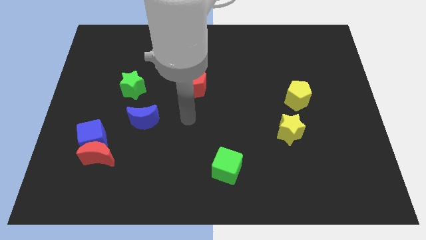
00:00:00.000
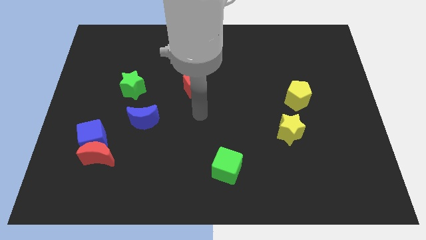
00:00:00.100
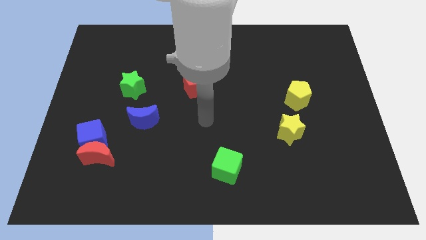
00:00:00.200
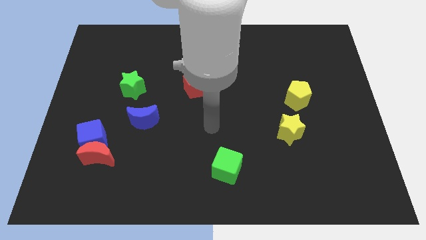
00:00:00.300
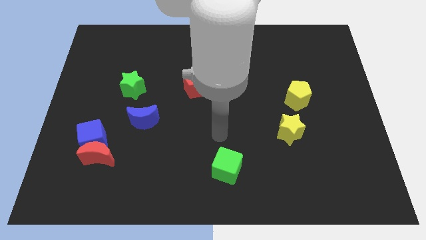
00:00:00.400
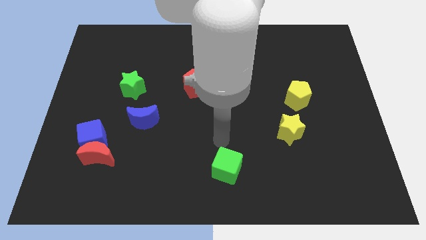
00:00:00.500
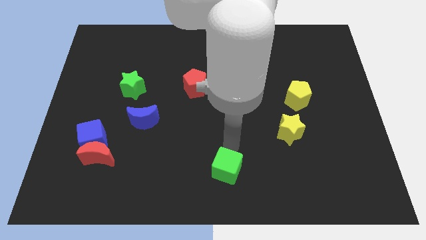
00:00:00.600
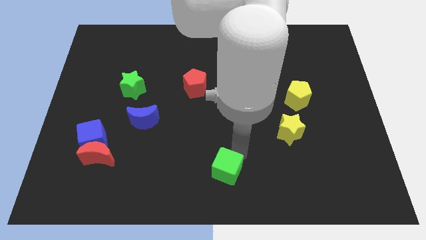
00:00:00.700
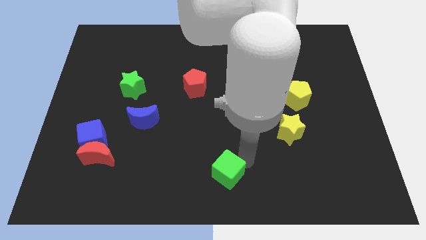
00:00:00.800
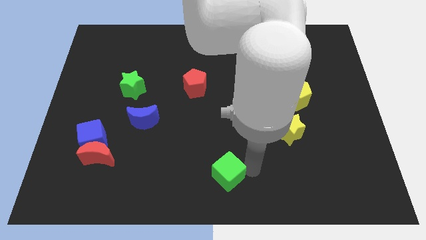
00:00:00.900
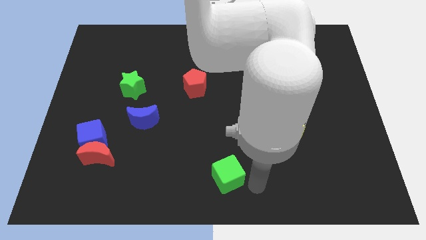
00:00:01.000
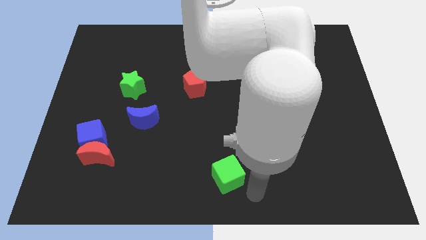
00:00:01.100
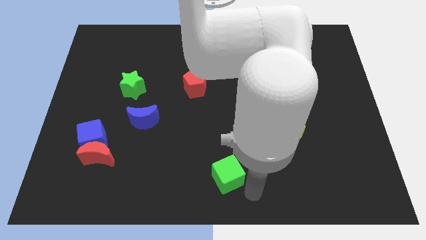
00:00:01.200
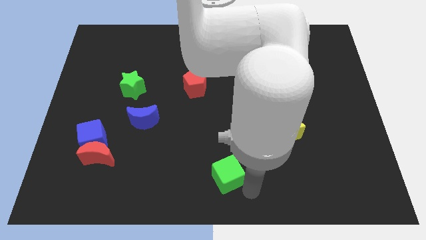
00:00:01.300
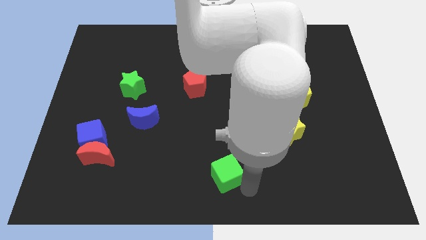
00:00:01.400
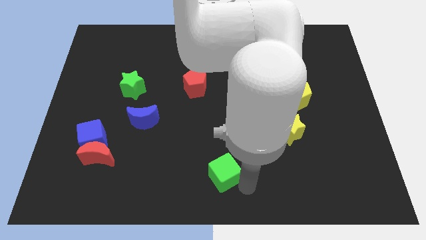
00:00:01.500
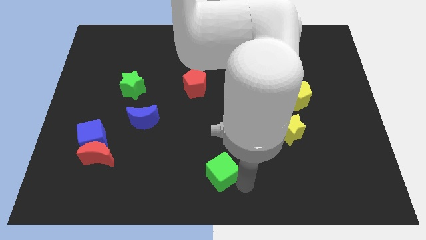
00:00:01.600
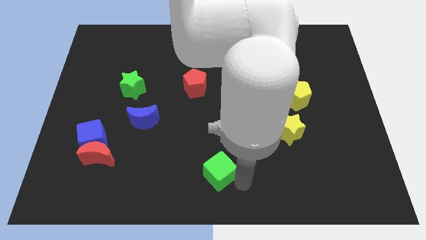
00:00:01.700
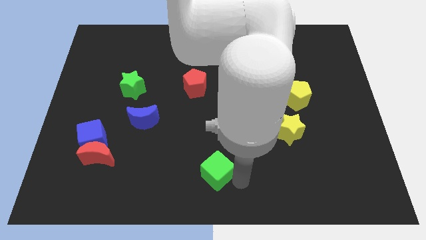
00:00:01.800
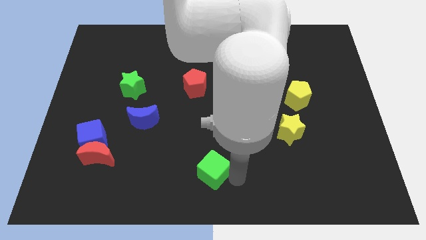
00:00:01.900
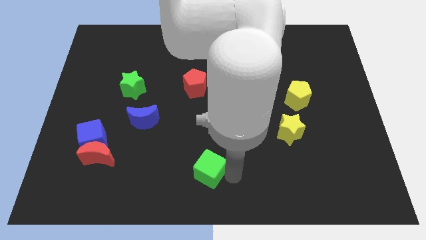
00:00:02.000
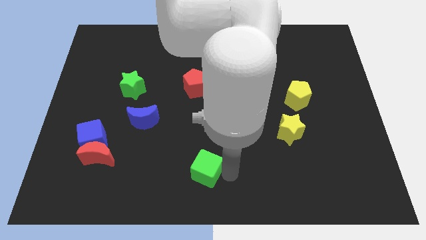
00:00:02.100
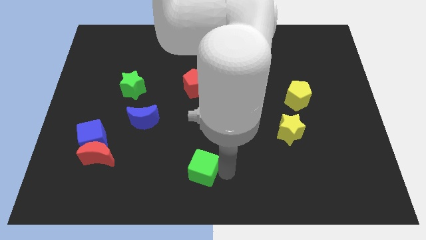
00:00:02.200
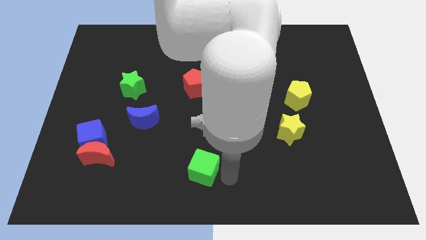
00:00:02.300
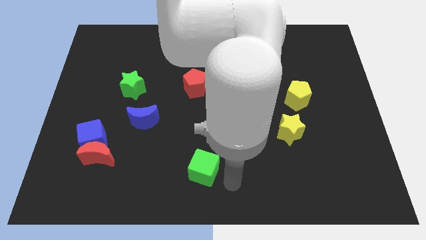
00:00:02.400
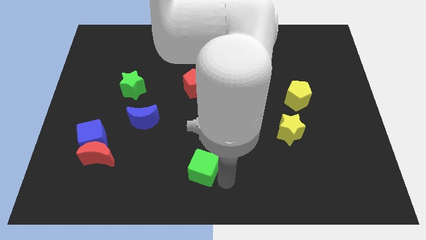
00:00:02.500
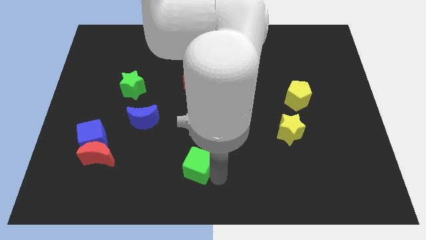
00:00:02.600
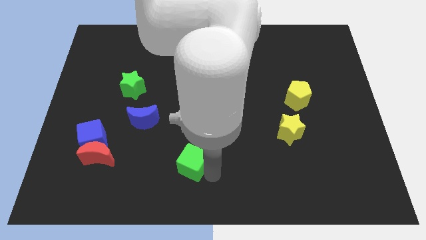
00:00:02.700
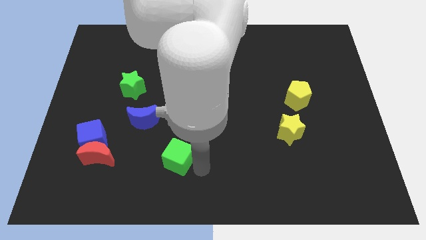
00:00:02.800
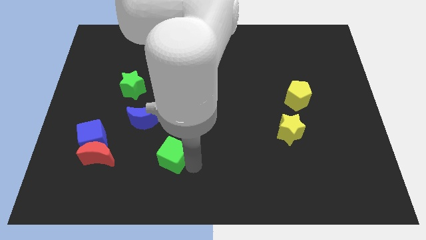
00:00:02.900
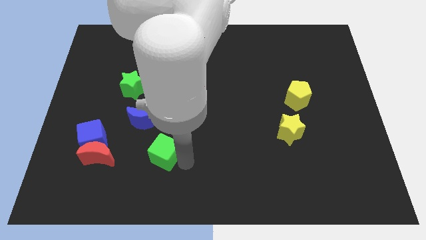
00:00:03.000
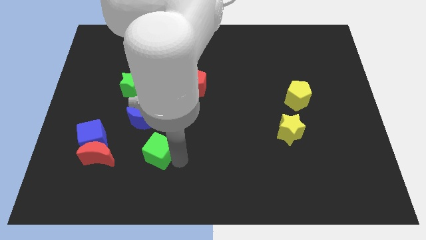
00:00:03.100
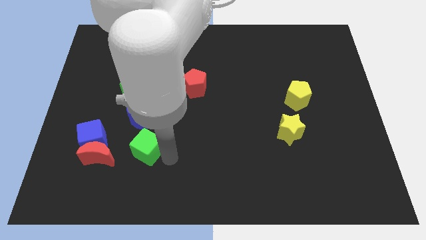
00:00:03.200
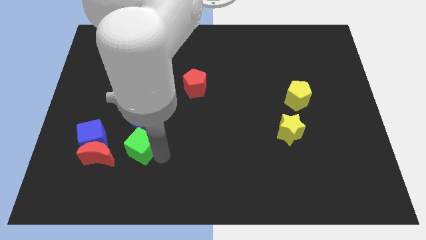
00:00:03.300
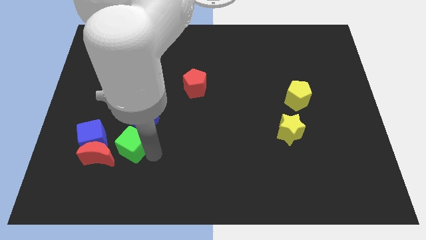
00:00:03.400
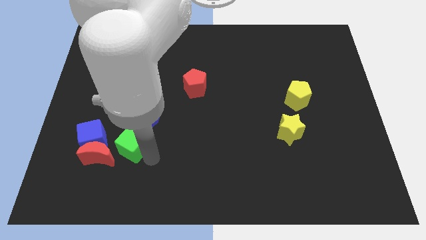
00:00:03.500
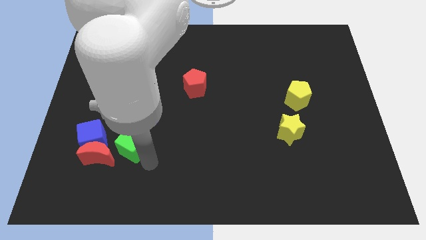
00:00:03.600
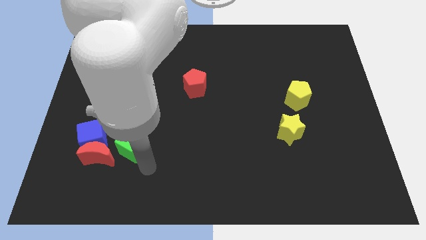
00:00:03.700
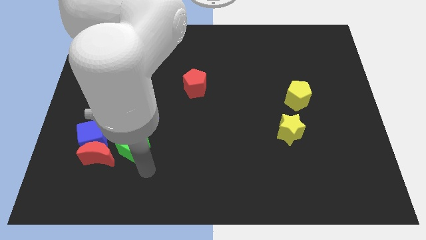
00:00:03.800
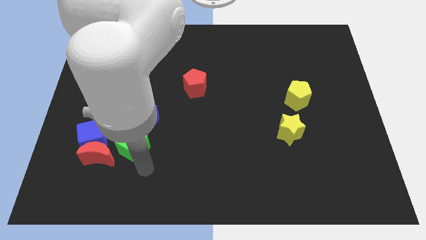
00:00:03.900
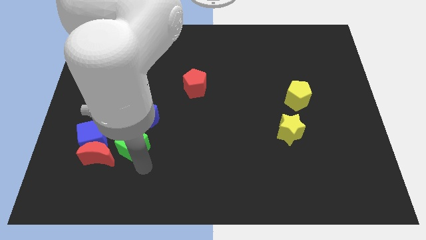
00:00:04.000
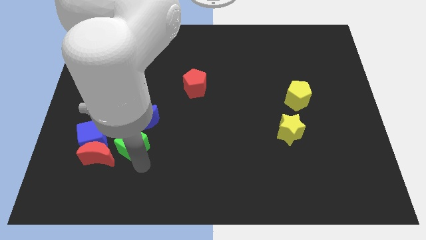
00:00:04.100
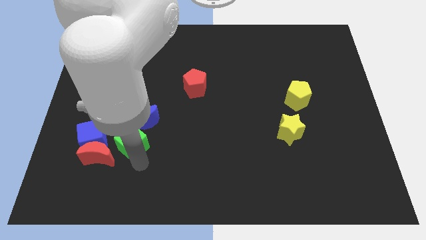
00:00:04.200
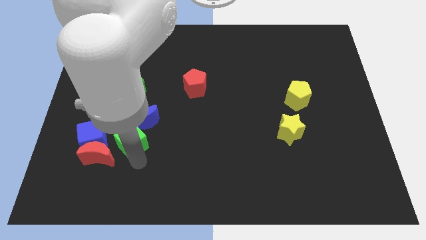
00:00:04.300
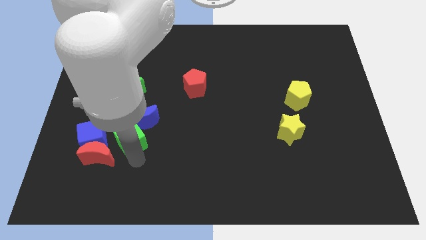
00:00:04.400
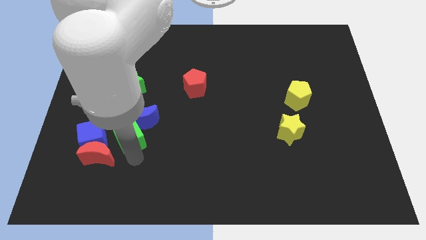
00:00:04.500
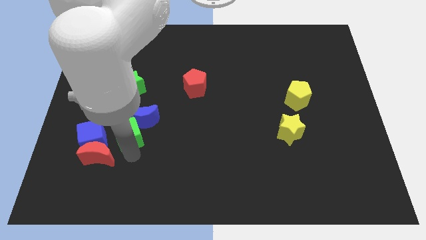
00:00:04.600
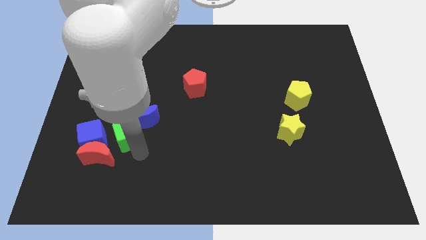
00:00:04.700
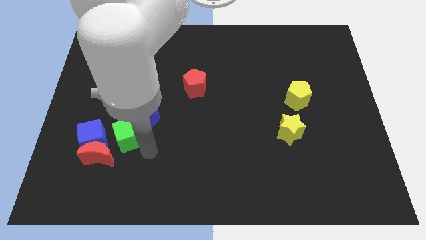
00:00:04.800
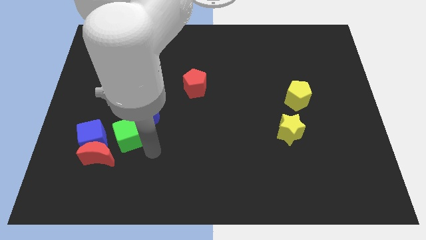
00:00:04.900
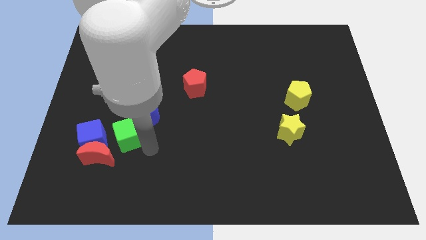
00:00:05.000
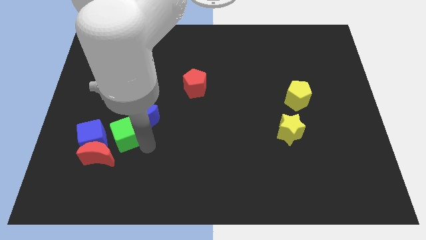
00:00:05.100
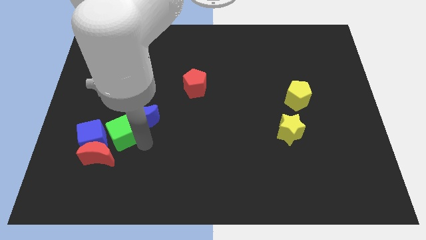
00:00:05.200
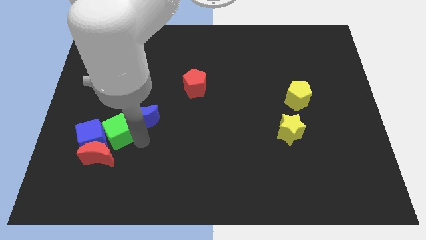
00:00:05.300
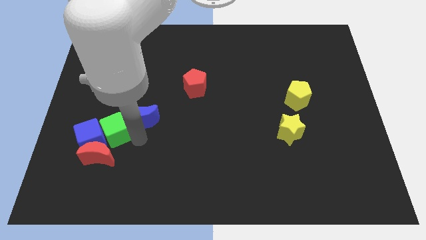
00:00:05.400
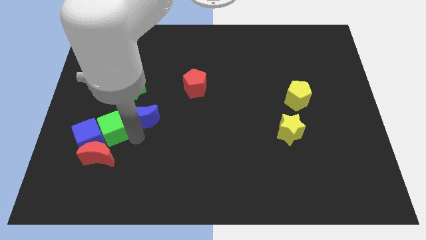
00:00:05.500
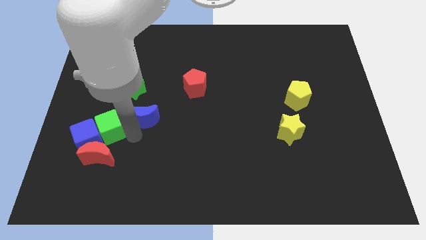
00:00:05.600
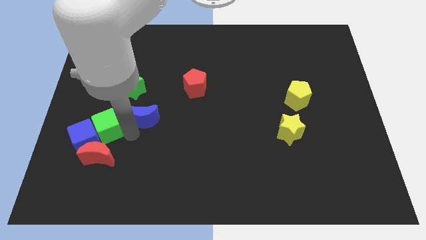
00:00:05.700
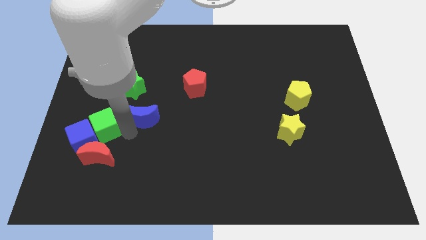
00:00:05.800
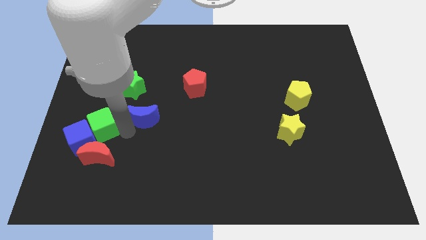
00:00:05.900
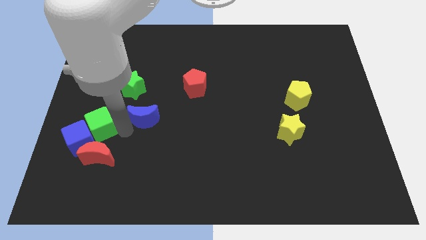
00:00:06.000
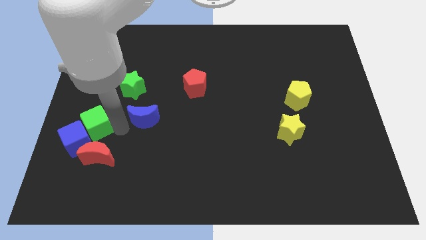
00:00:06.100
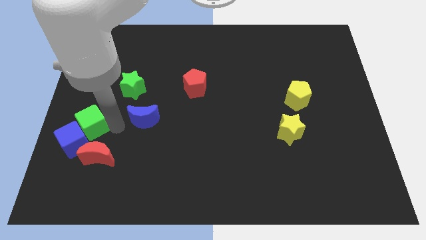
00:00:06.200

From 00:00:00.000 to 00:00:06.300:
push the green cube to the left side
